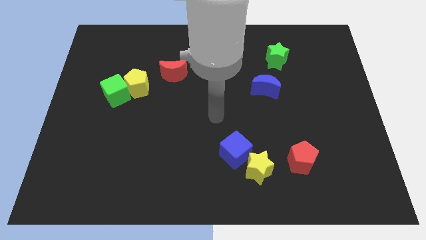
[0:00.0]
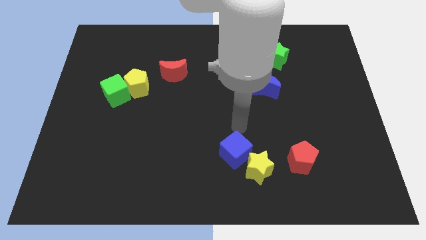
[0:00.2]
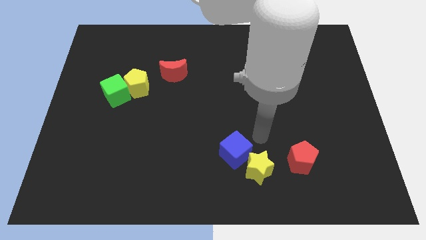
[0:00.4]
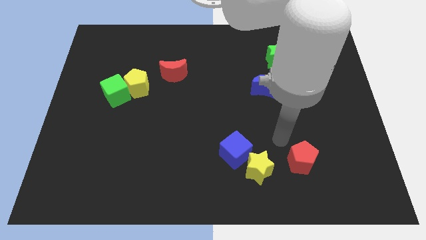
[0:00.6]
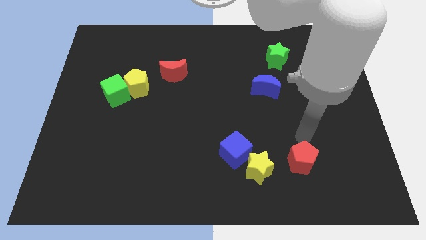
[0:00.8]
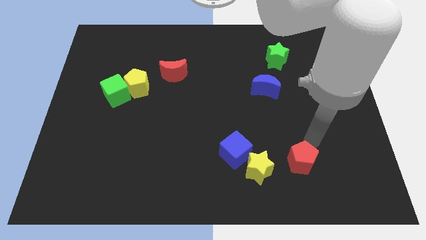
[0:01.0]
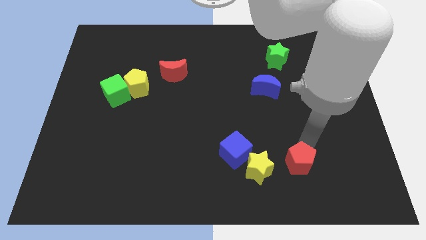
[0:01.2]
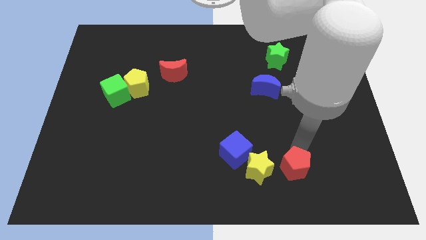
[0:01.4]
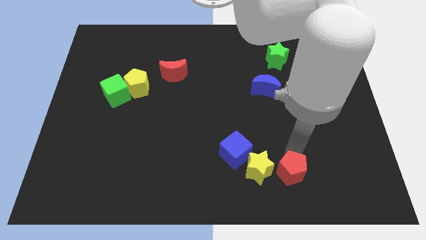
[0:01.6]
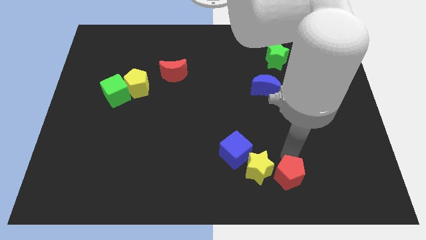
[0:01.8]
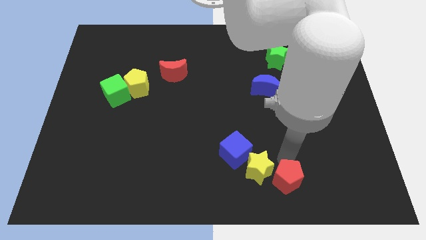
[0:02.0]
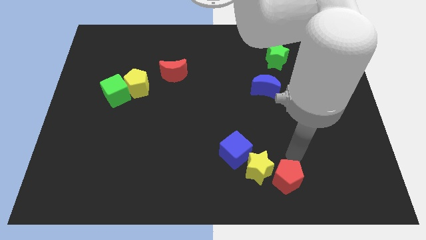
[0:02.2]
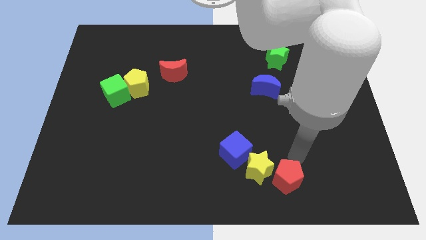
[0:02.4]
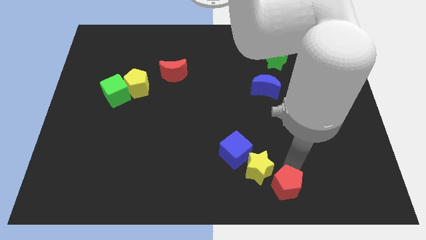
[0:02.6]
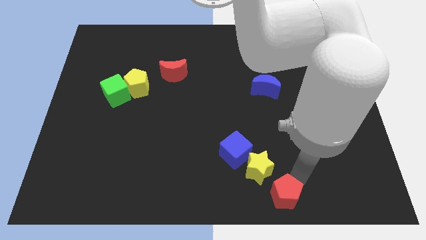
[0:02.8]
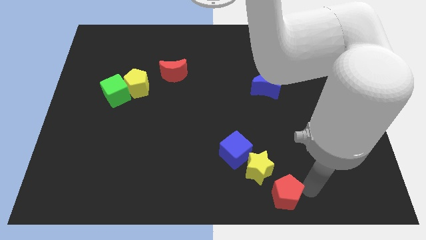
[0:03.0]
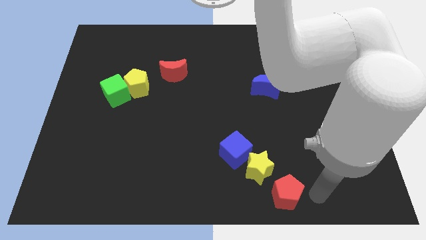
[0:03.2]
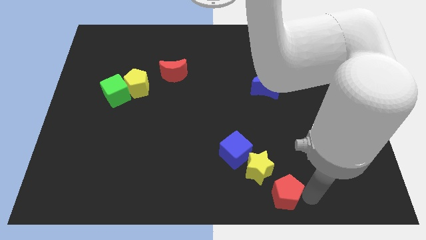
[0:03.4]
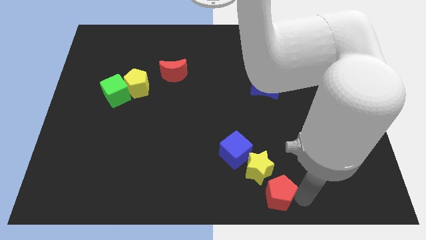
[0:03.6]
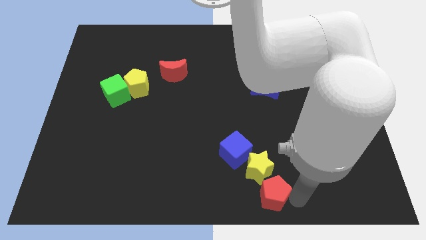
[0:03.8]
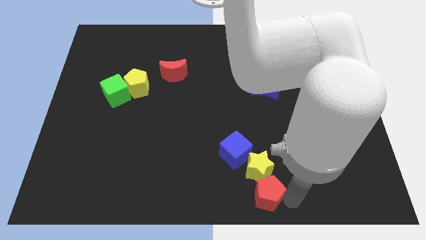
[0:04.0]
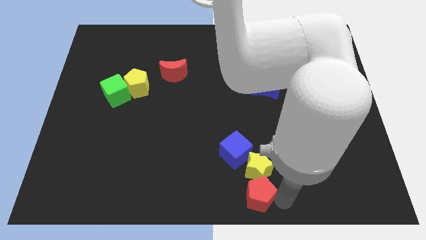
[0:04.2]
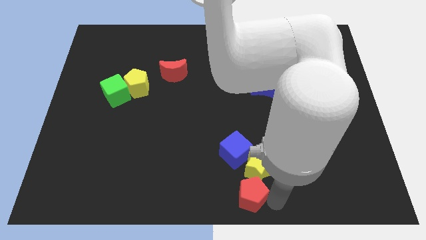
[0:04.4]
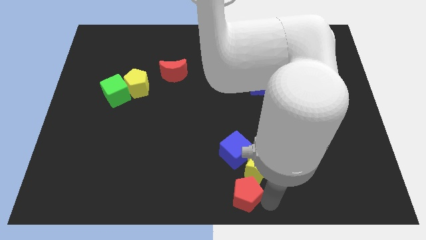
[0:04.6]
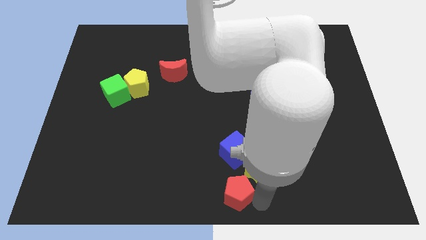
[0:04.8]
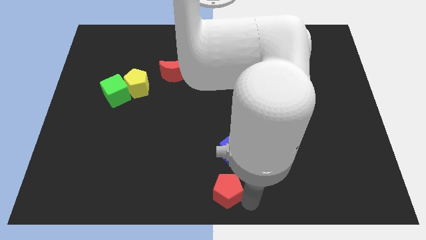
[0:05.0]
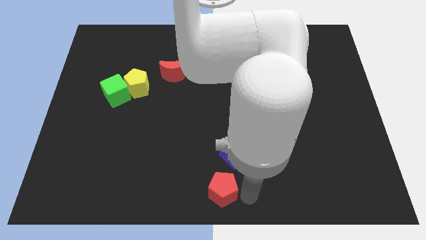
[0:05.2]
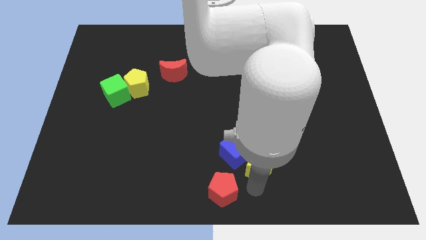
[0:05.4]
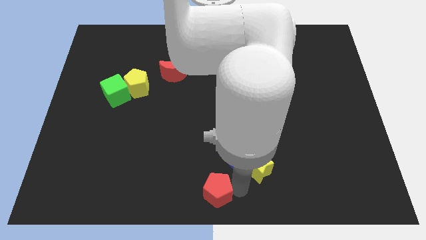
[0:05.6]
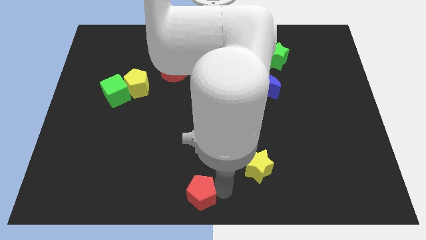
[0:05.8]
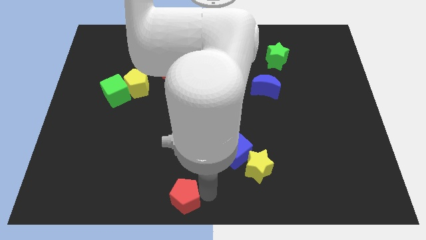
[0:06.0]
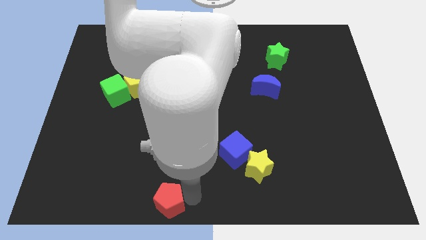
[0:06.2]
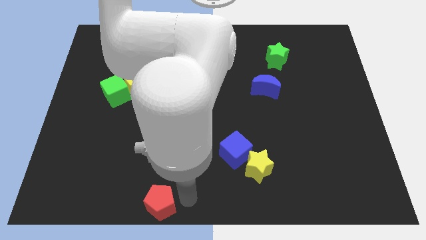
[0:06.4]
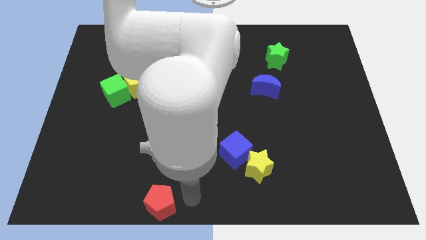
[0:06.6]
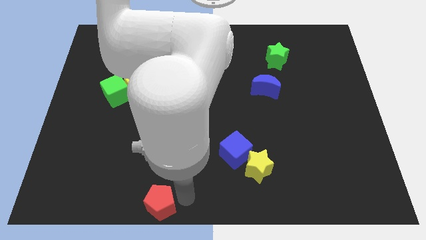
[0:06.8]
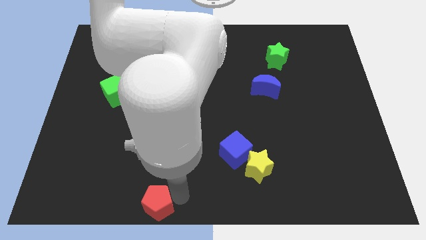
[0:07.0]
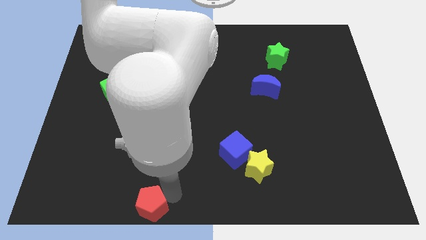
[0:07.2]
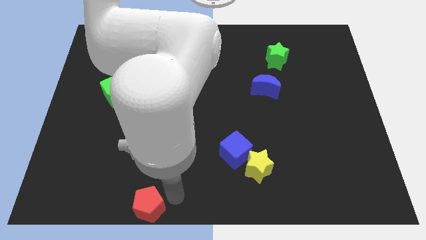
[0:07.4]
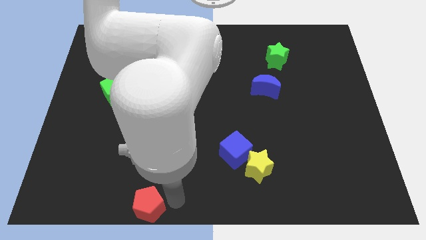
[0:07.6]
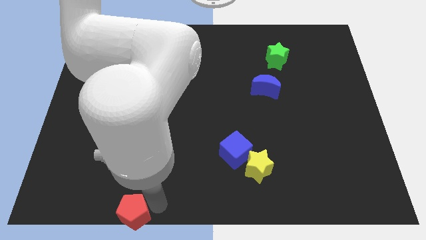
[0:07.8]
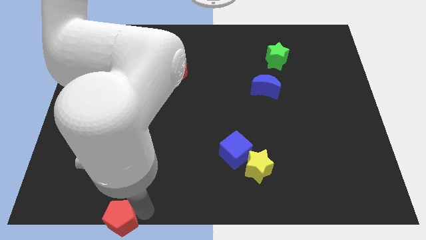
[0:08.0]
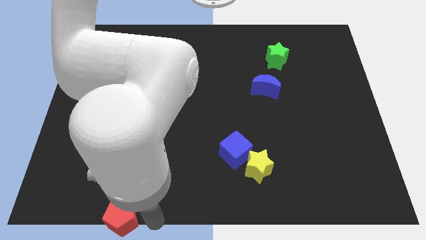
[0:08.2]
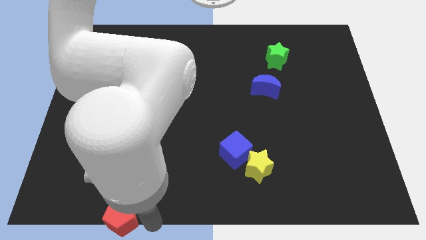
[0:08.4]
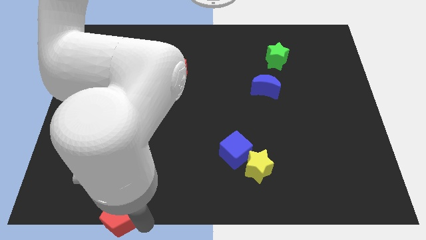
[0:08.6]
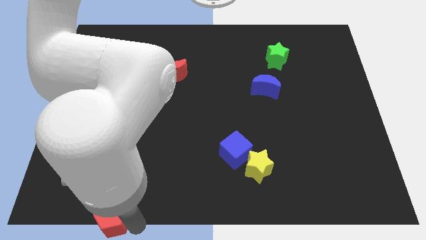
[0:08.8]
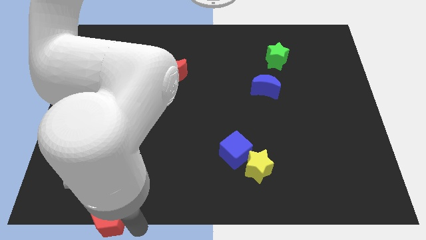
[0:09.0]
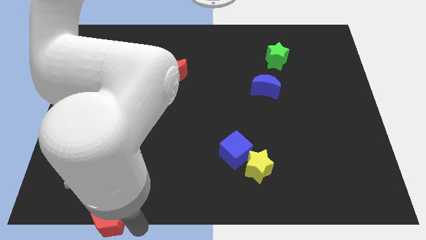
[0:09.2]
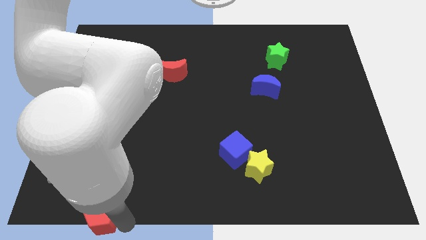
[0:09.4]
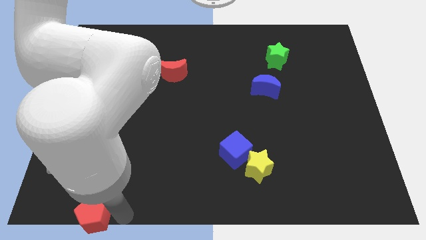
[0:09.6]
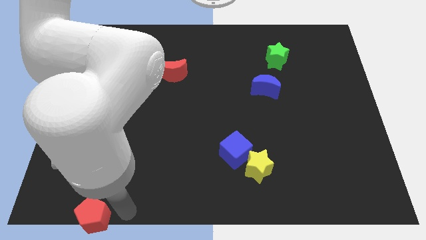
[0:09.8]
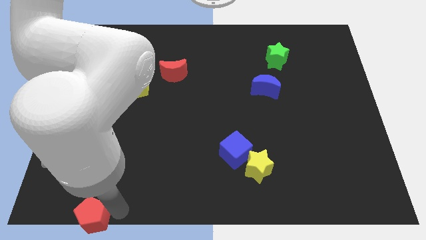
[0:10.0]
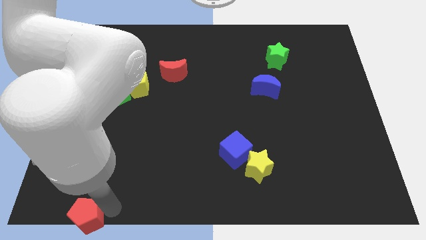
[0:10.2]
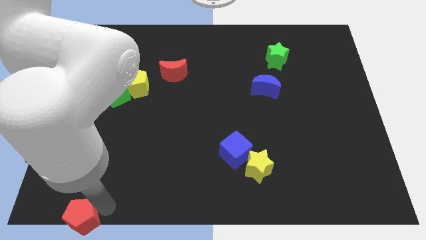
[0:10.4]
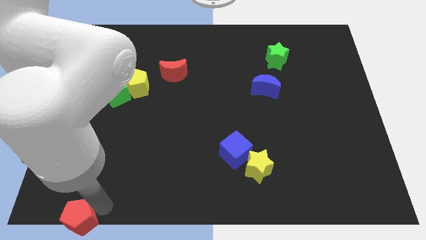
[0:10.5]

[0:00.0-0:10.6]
put the red pentagon to the lower left corner
